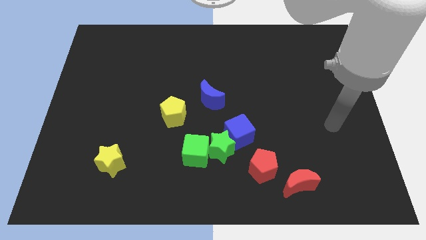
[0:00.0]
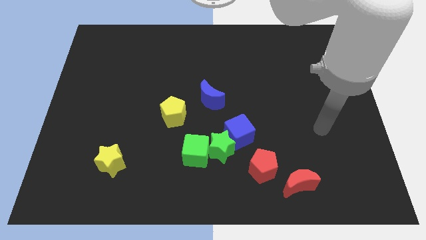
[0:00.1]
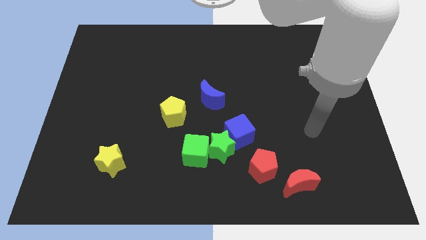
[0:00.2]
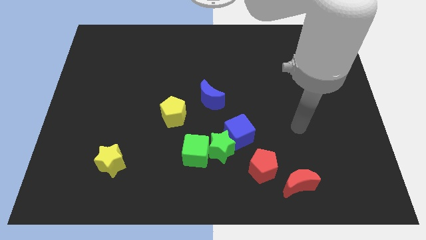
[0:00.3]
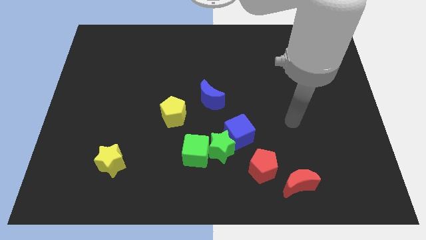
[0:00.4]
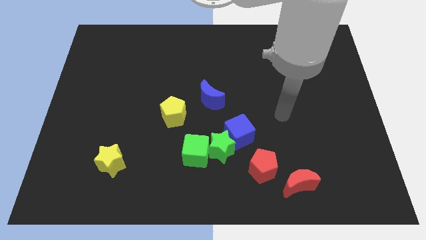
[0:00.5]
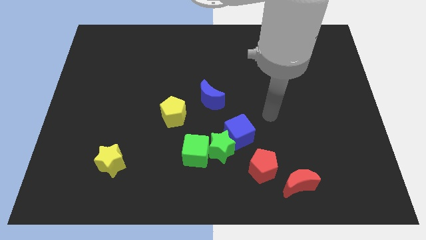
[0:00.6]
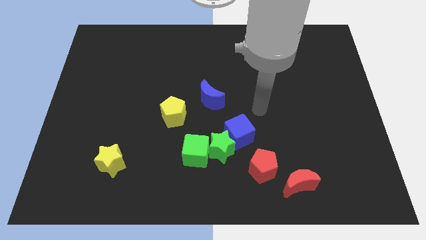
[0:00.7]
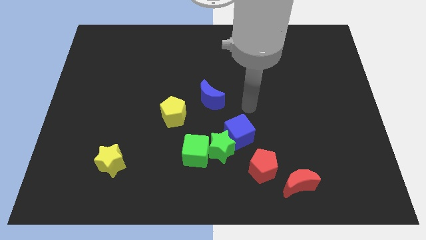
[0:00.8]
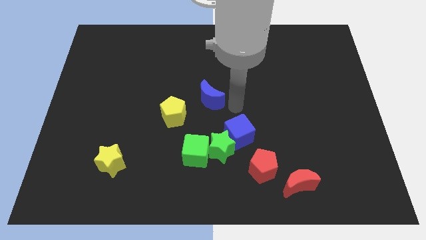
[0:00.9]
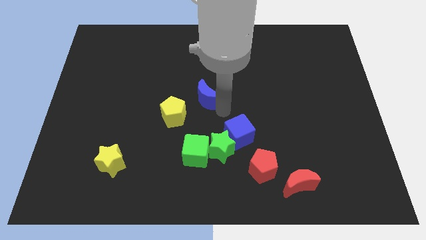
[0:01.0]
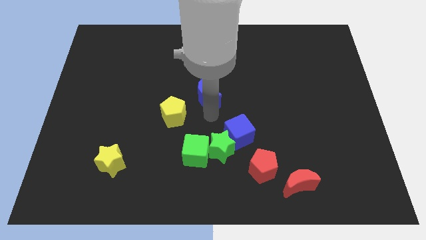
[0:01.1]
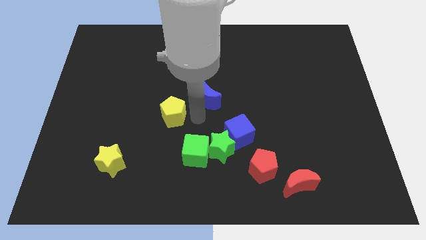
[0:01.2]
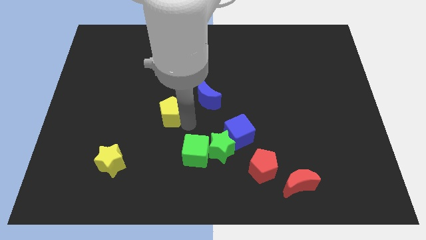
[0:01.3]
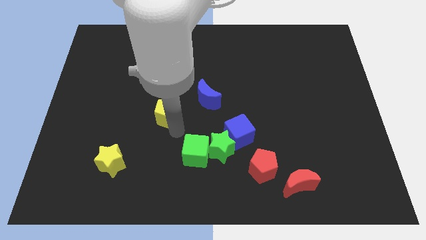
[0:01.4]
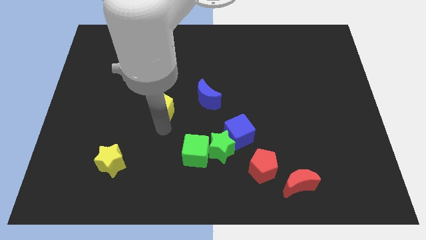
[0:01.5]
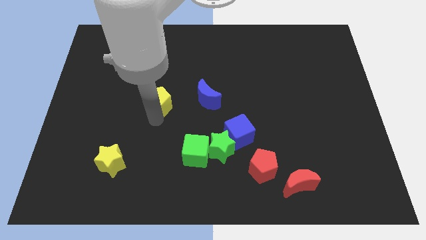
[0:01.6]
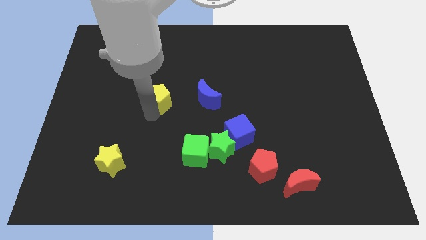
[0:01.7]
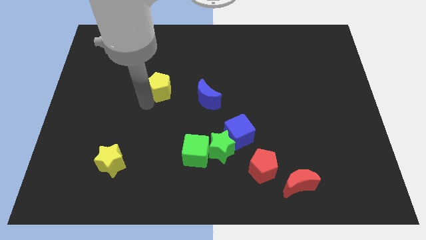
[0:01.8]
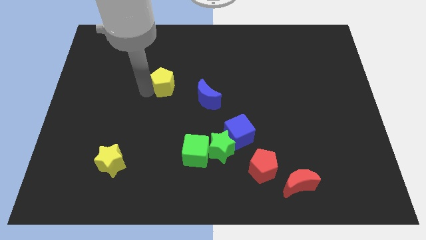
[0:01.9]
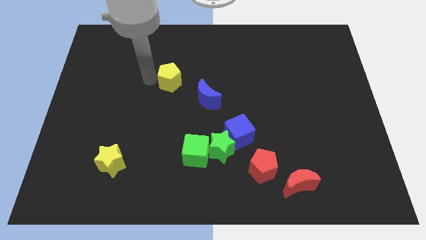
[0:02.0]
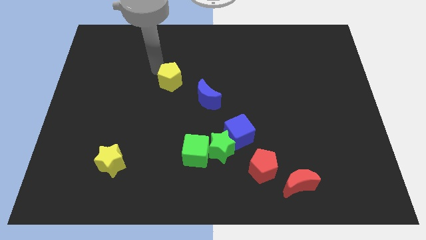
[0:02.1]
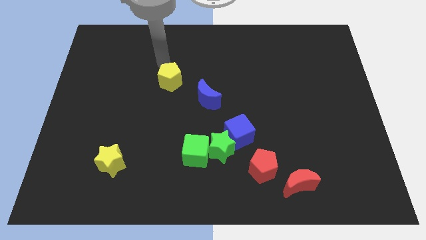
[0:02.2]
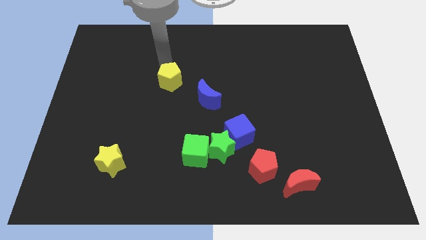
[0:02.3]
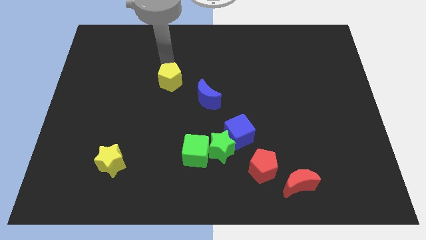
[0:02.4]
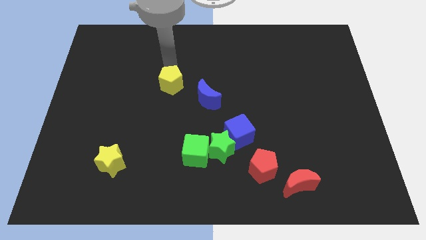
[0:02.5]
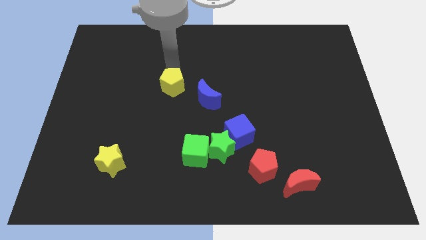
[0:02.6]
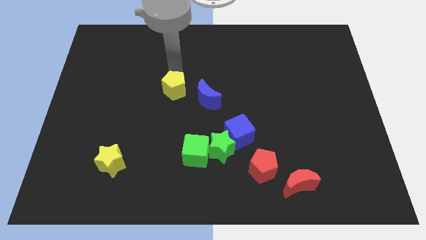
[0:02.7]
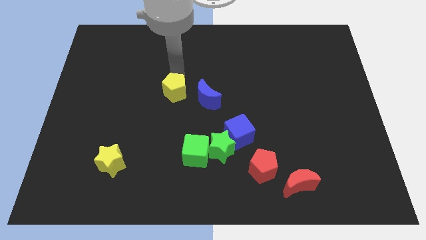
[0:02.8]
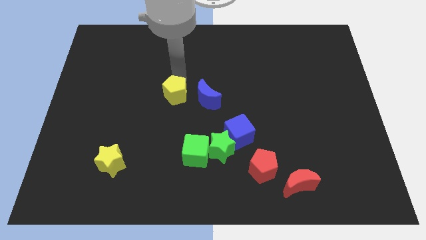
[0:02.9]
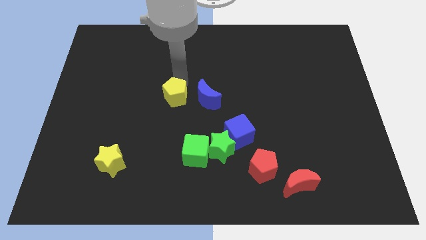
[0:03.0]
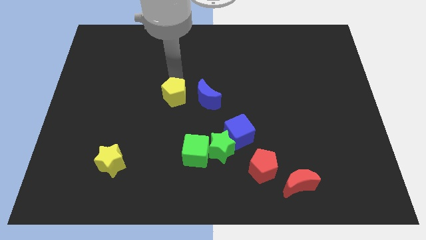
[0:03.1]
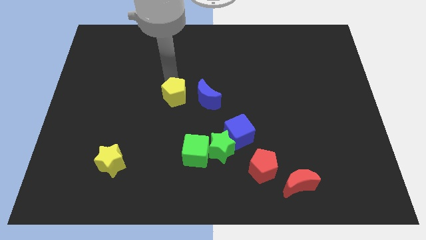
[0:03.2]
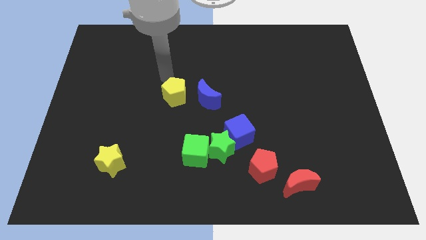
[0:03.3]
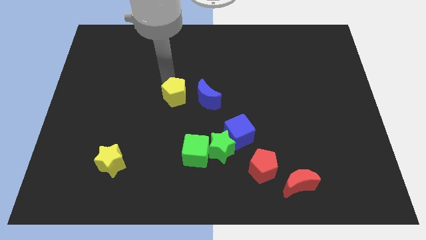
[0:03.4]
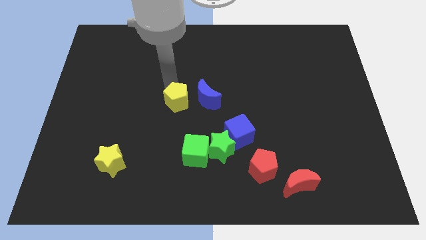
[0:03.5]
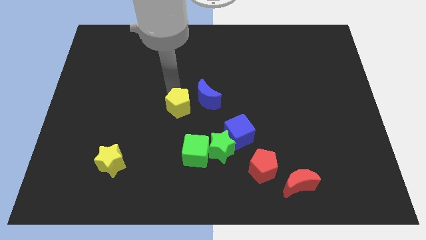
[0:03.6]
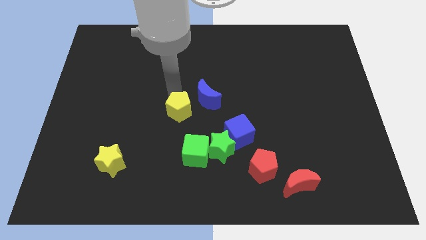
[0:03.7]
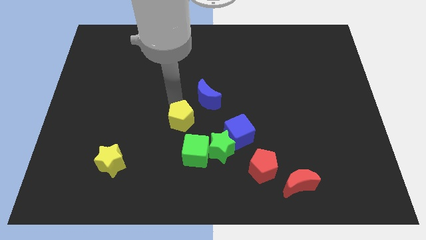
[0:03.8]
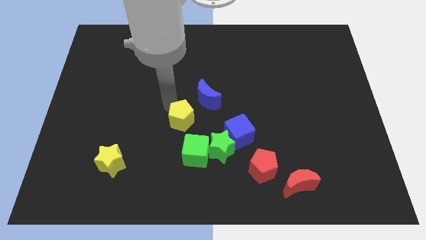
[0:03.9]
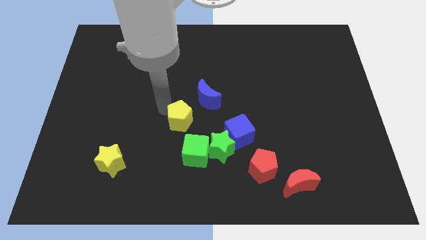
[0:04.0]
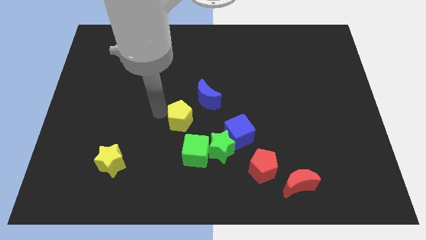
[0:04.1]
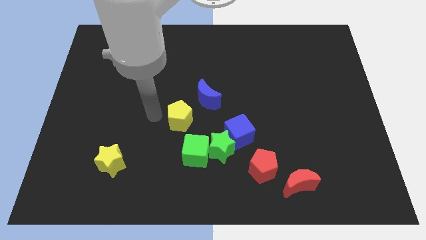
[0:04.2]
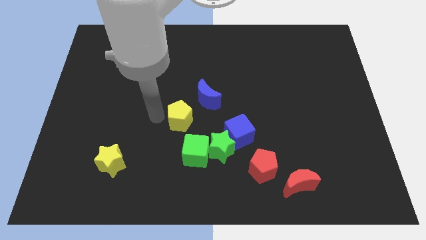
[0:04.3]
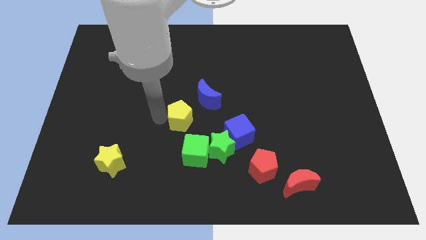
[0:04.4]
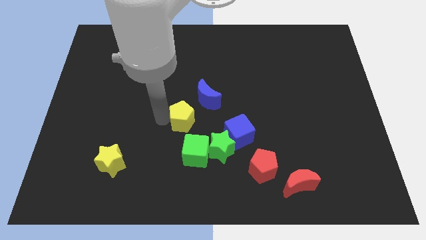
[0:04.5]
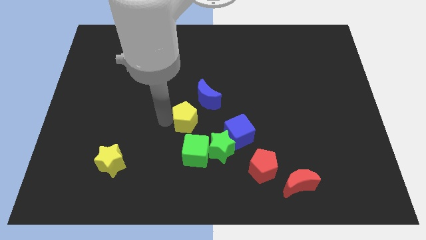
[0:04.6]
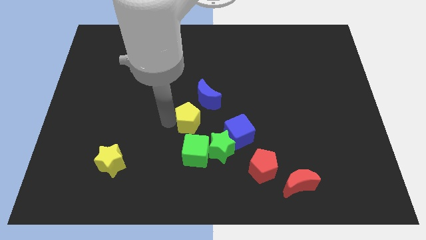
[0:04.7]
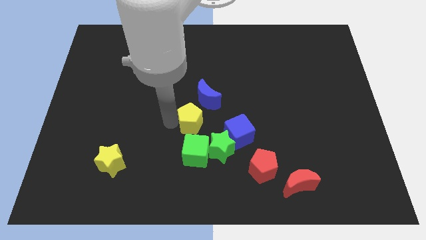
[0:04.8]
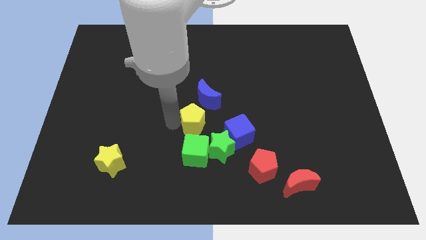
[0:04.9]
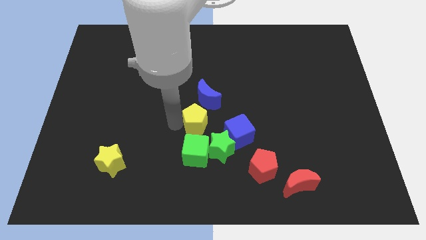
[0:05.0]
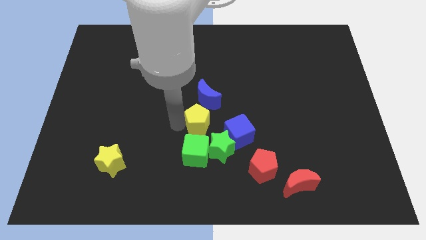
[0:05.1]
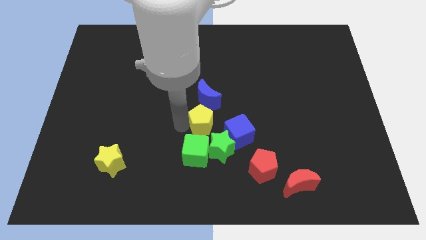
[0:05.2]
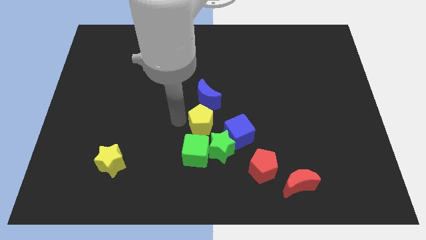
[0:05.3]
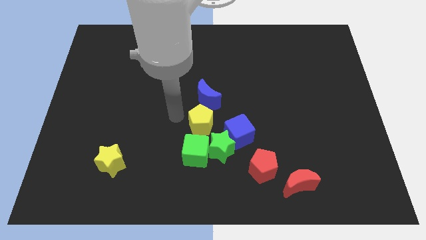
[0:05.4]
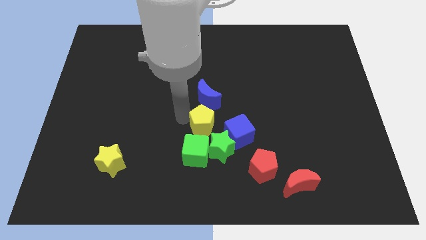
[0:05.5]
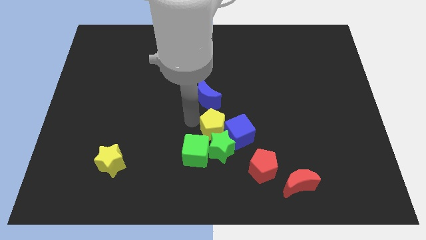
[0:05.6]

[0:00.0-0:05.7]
slide the yellow pentagon to the blue cube

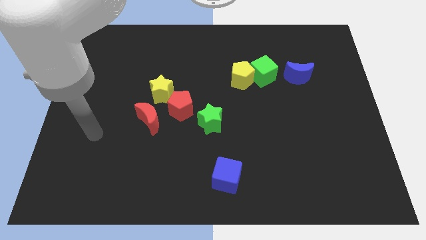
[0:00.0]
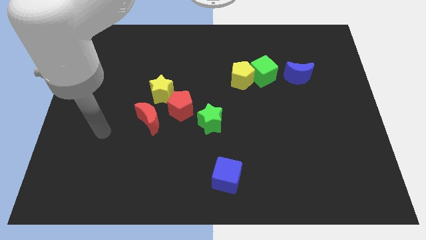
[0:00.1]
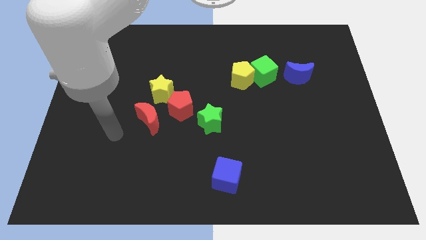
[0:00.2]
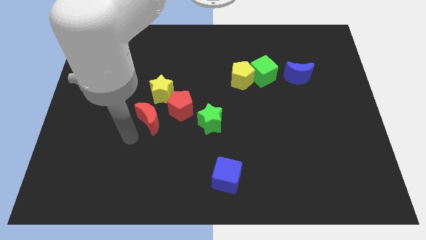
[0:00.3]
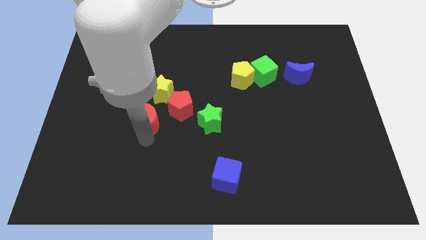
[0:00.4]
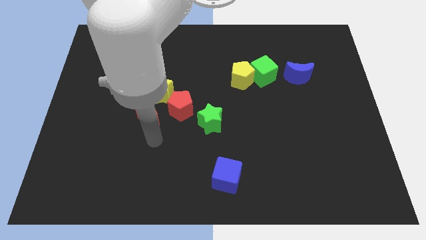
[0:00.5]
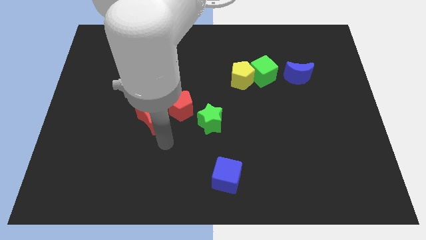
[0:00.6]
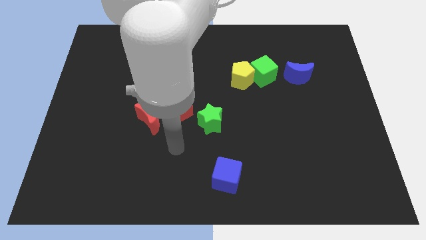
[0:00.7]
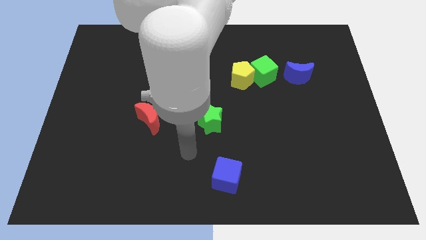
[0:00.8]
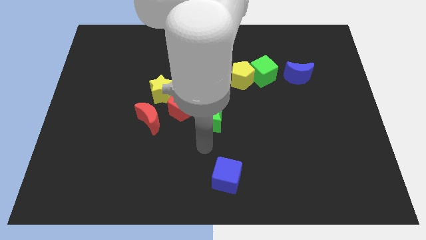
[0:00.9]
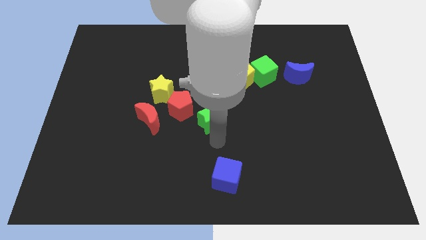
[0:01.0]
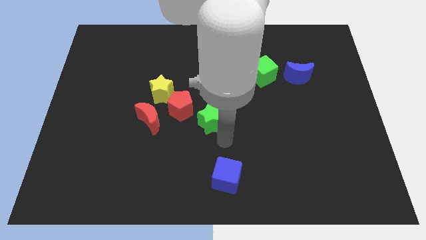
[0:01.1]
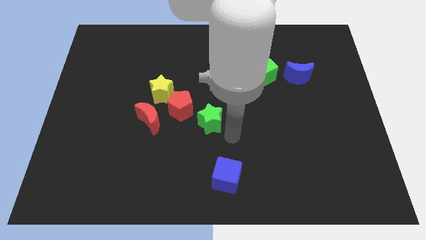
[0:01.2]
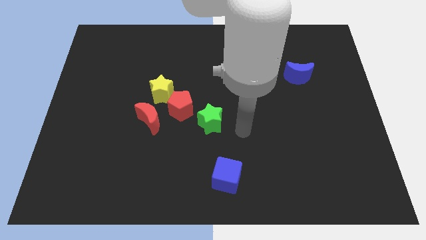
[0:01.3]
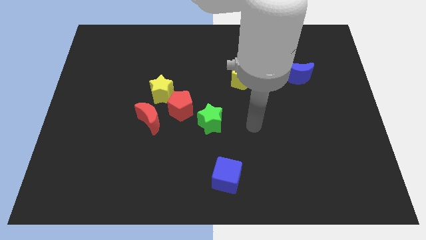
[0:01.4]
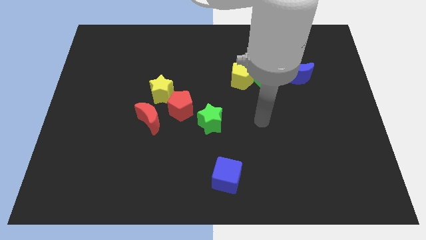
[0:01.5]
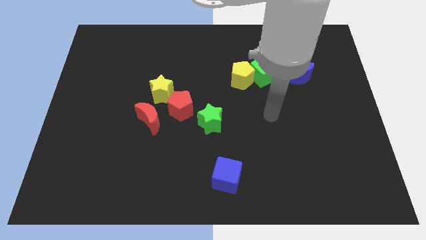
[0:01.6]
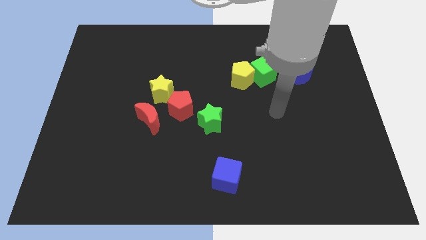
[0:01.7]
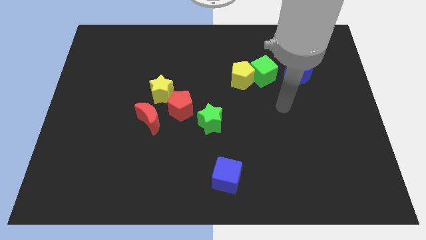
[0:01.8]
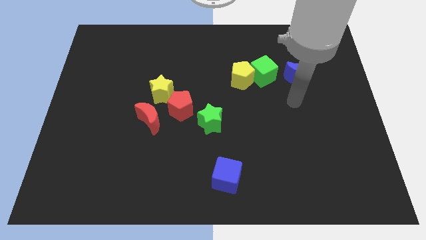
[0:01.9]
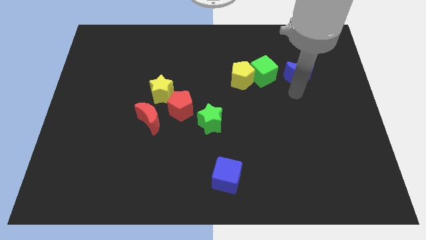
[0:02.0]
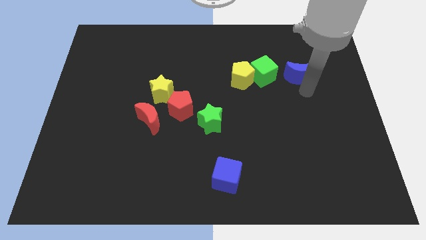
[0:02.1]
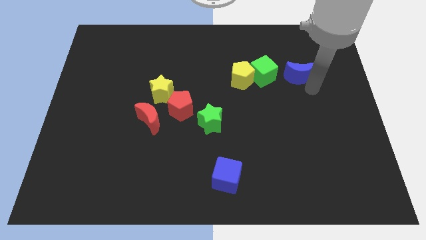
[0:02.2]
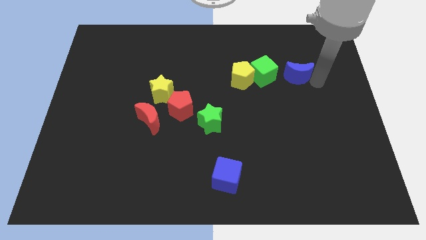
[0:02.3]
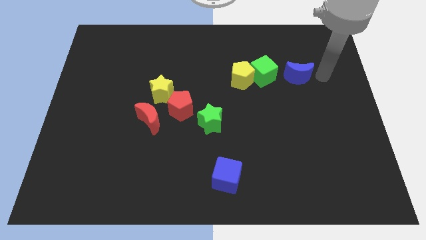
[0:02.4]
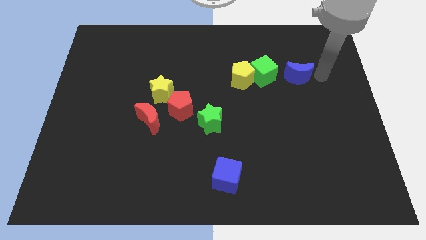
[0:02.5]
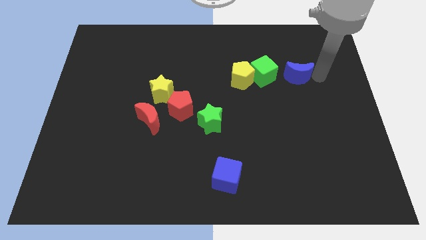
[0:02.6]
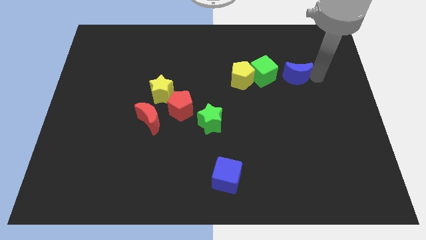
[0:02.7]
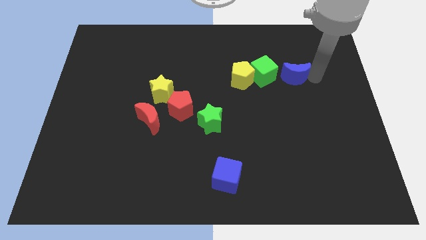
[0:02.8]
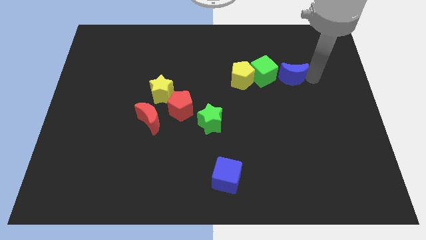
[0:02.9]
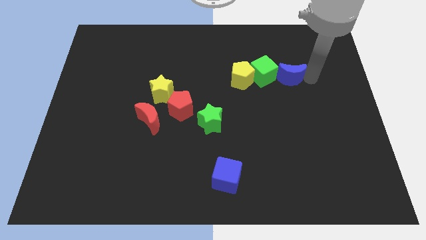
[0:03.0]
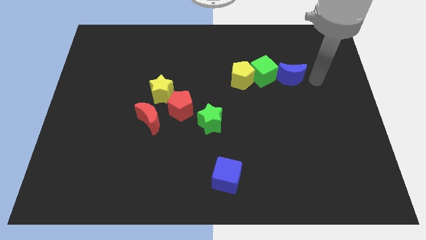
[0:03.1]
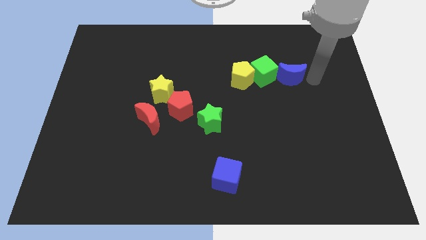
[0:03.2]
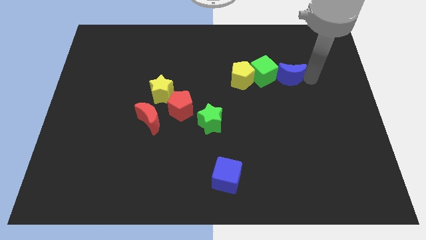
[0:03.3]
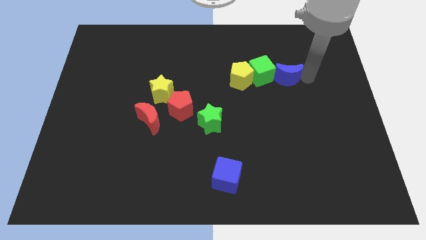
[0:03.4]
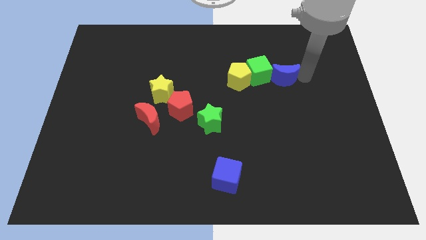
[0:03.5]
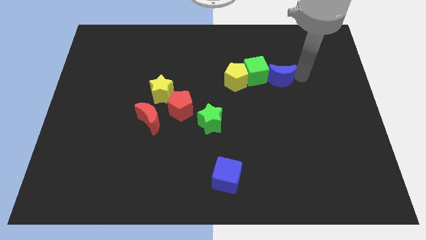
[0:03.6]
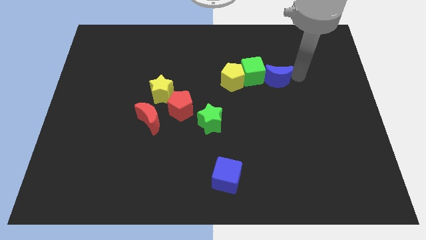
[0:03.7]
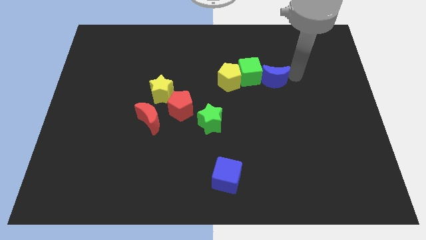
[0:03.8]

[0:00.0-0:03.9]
push the blue moon next to the green cube
